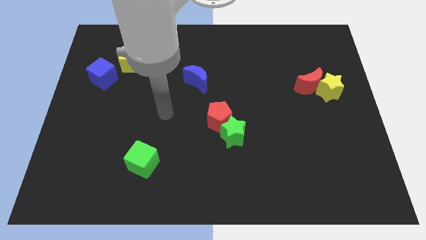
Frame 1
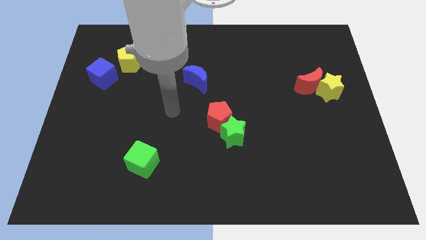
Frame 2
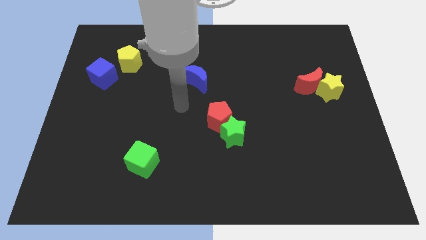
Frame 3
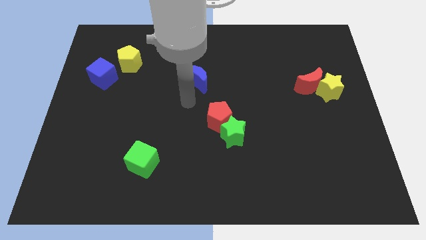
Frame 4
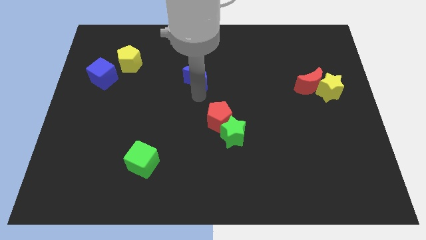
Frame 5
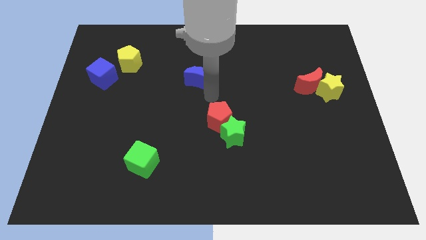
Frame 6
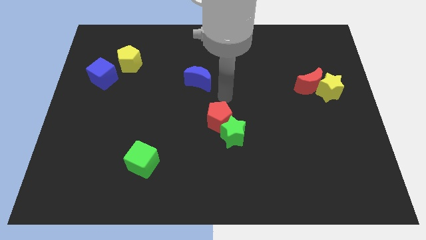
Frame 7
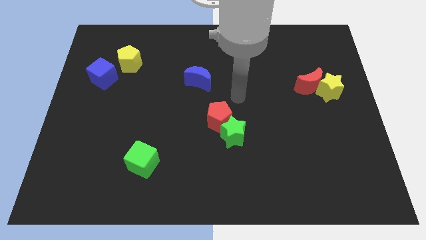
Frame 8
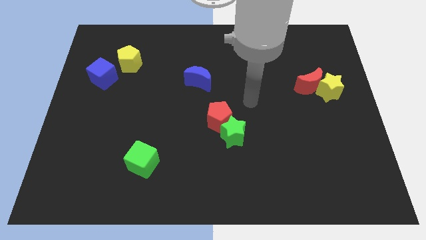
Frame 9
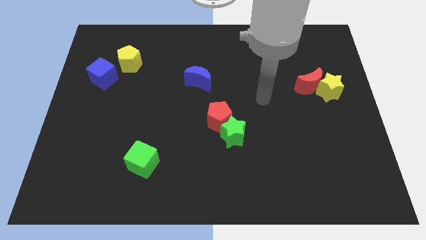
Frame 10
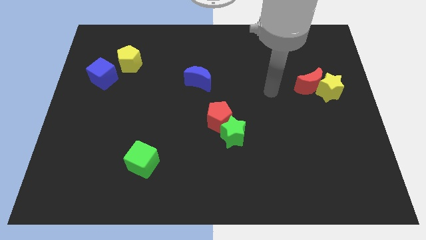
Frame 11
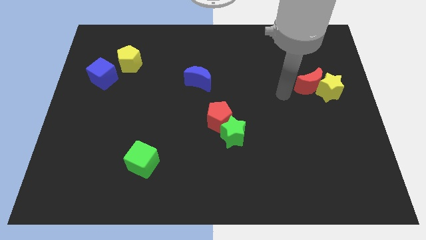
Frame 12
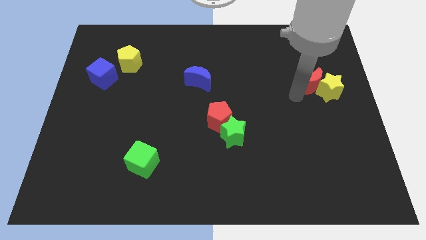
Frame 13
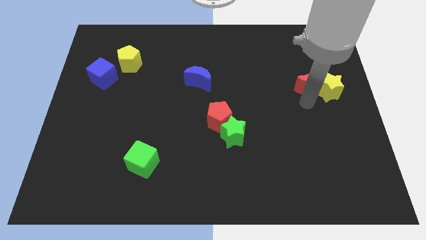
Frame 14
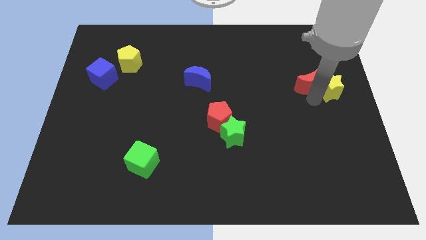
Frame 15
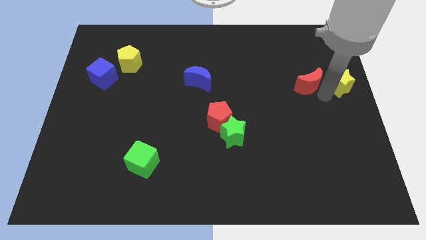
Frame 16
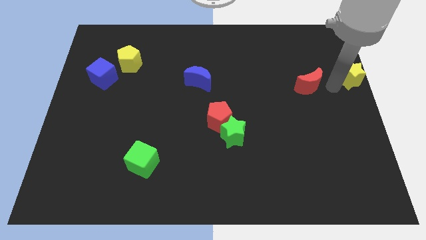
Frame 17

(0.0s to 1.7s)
pull the red moon apart from the yellow star

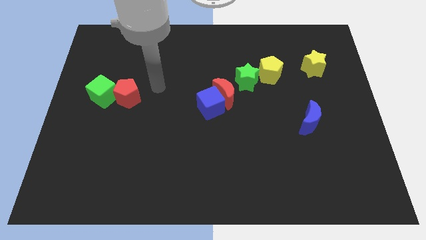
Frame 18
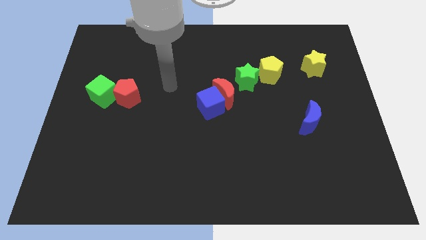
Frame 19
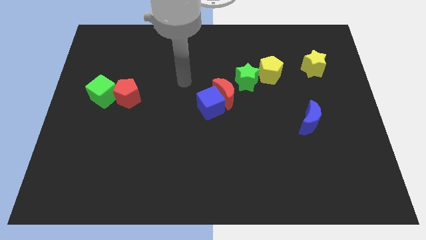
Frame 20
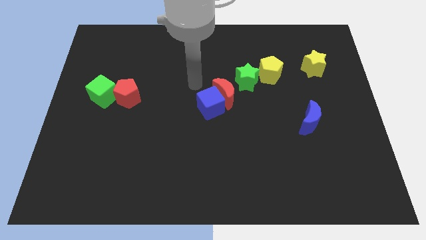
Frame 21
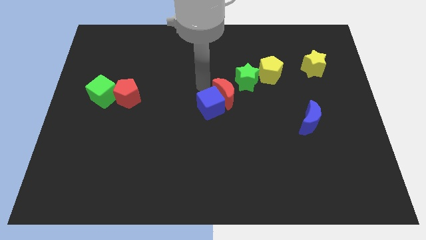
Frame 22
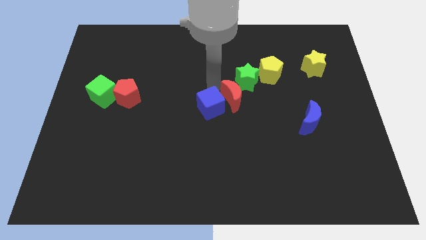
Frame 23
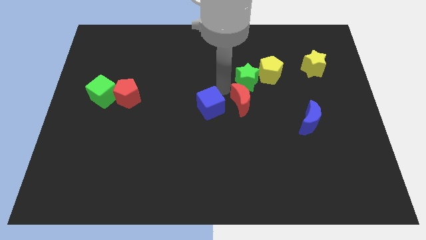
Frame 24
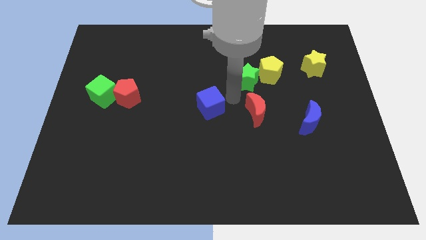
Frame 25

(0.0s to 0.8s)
pull the blue cube apart from the red moon

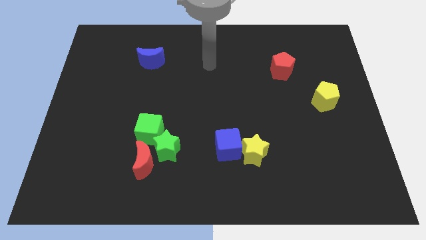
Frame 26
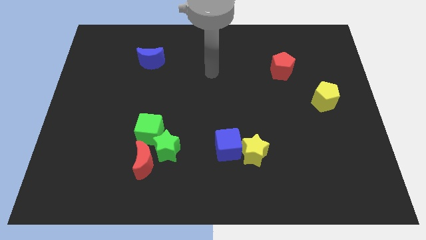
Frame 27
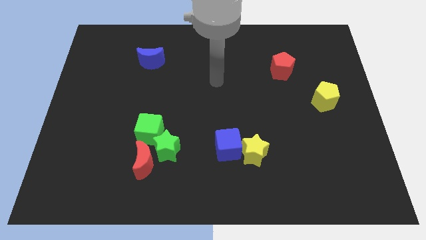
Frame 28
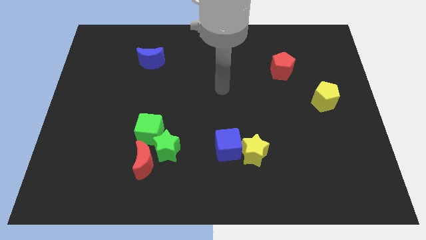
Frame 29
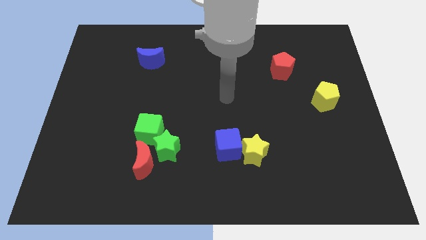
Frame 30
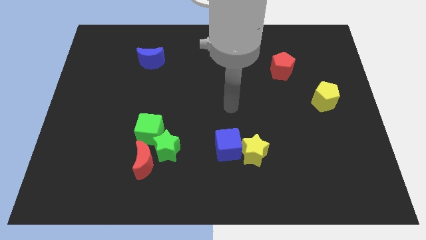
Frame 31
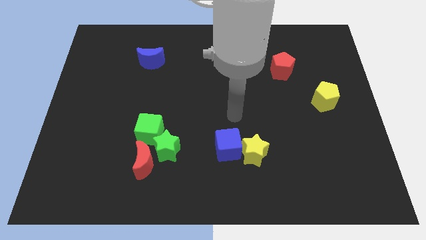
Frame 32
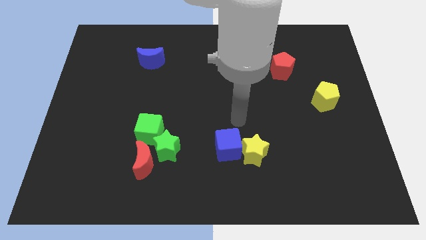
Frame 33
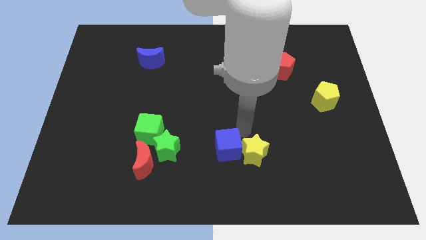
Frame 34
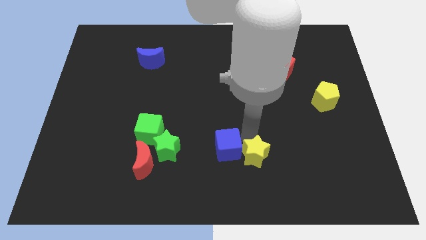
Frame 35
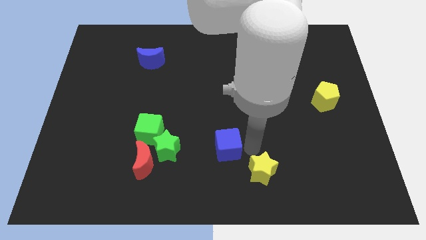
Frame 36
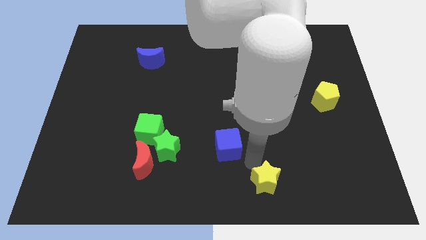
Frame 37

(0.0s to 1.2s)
pull the blue cube apart from the yellow star

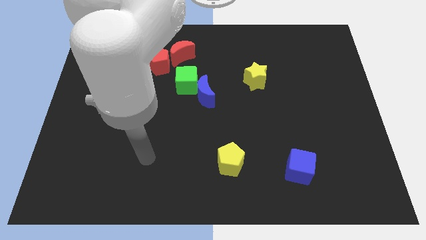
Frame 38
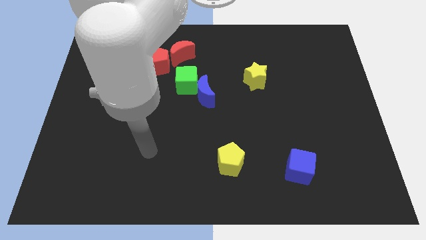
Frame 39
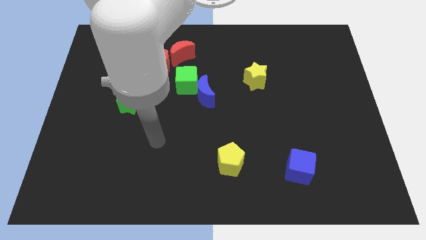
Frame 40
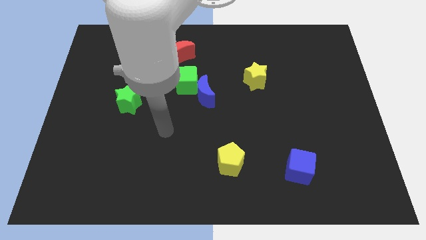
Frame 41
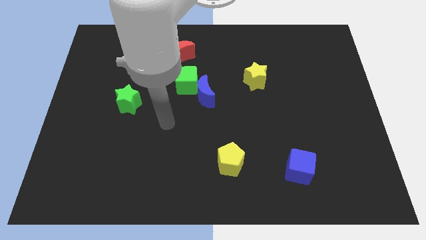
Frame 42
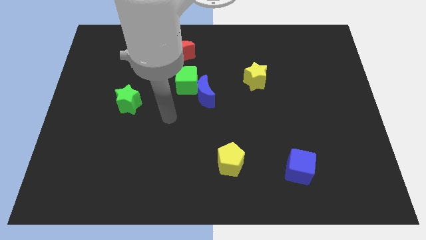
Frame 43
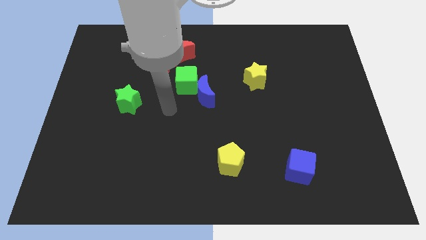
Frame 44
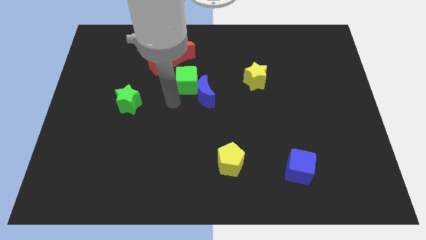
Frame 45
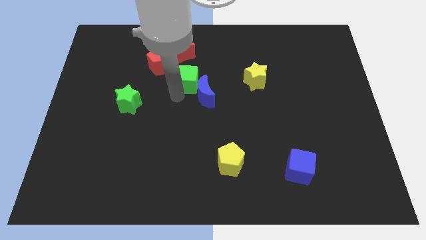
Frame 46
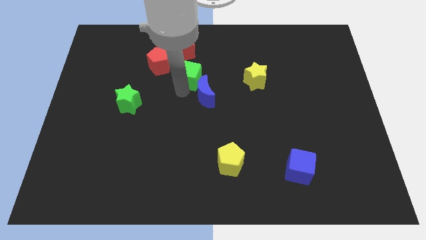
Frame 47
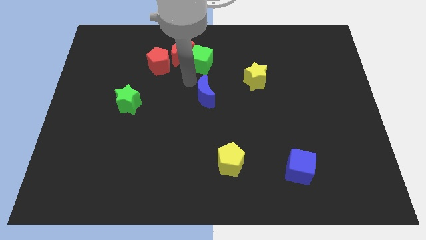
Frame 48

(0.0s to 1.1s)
separate the blue moon from the green cube

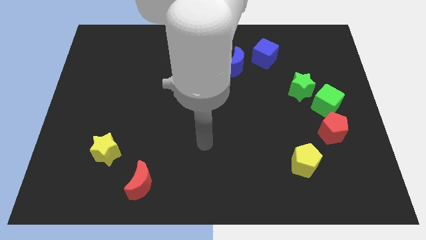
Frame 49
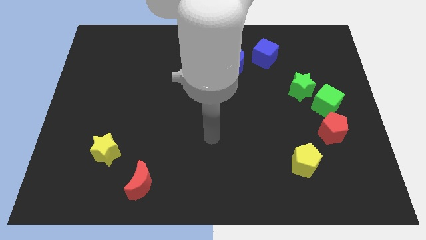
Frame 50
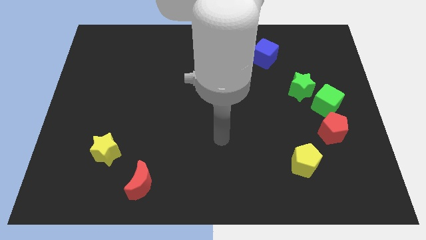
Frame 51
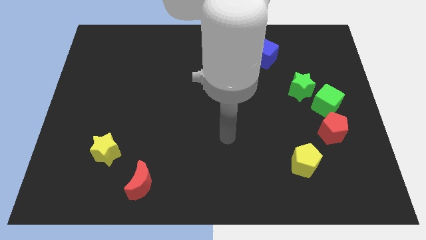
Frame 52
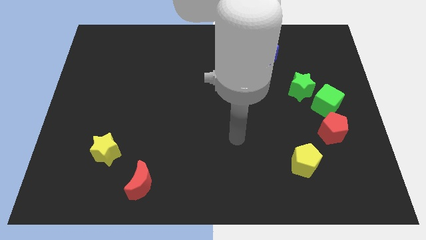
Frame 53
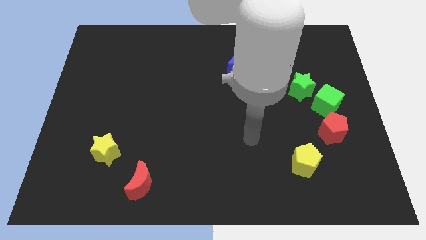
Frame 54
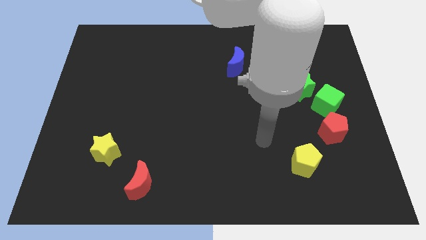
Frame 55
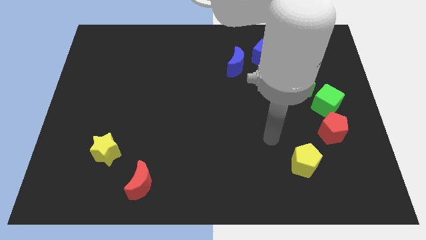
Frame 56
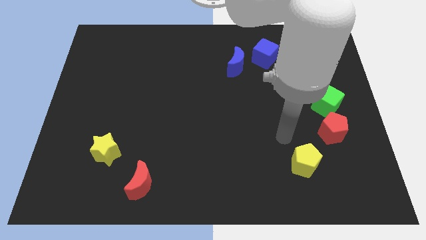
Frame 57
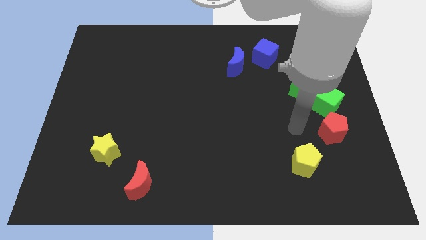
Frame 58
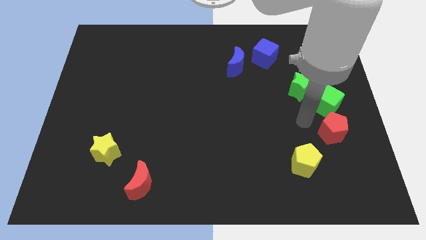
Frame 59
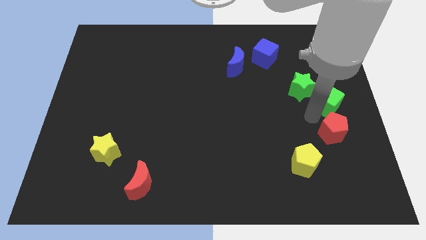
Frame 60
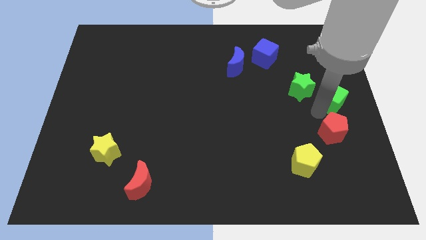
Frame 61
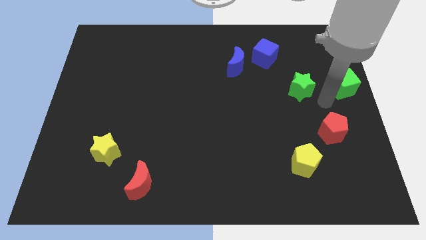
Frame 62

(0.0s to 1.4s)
separate the green star from the green cube

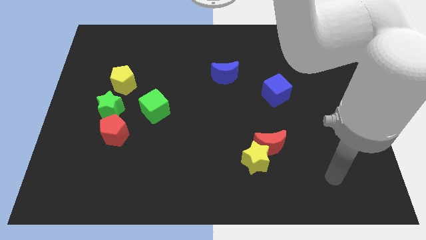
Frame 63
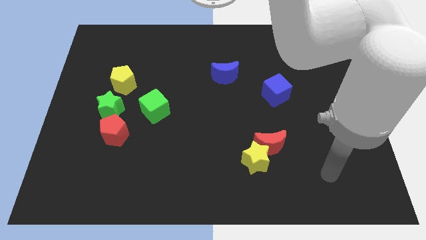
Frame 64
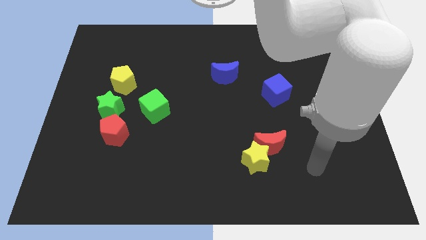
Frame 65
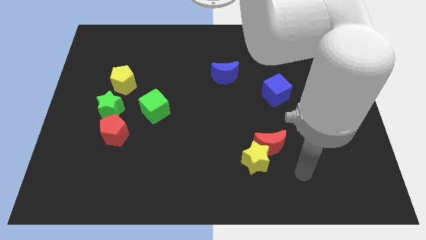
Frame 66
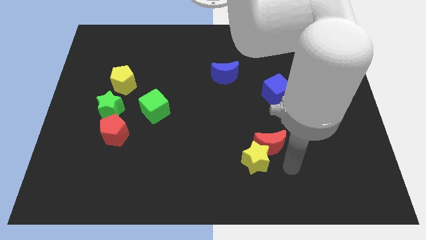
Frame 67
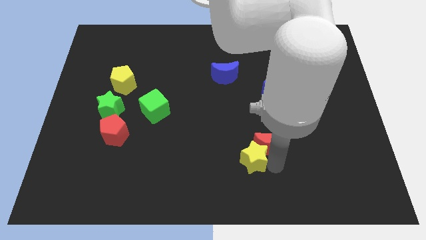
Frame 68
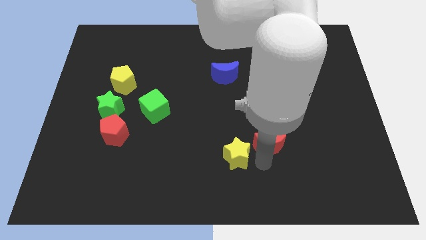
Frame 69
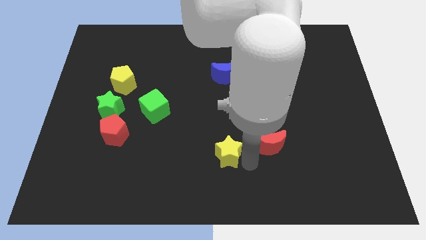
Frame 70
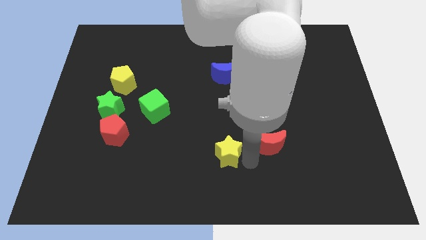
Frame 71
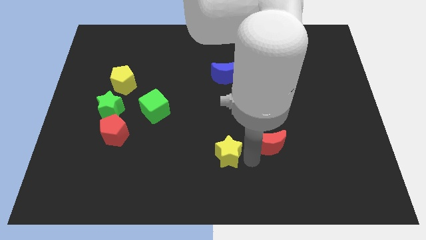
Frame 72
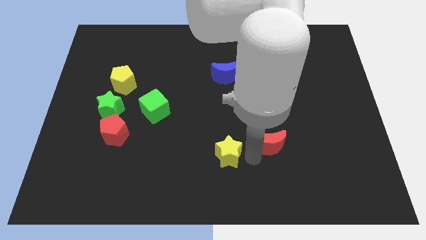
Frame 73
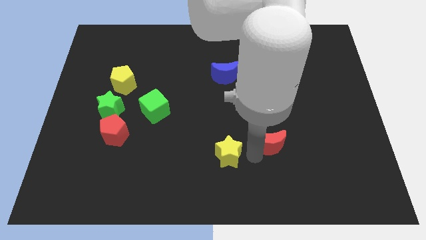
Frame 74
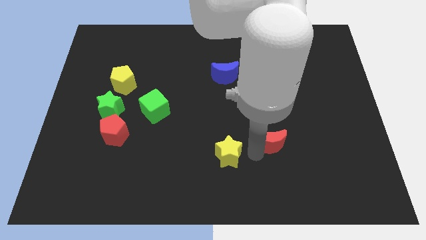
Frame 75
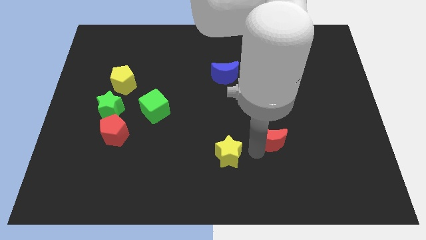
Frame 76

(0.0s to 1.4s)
separate the red moon from the yellow star

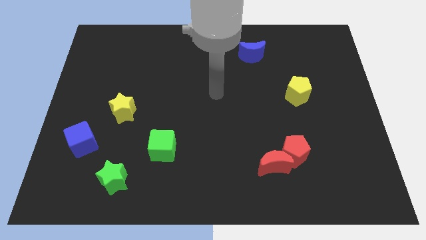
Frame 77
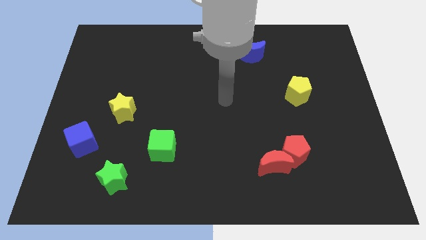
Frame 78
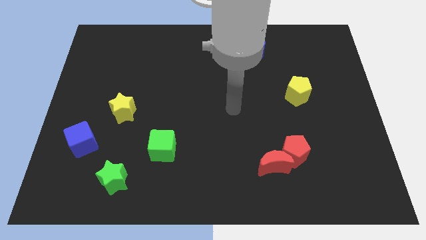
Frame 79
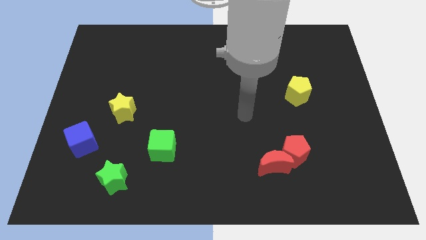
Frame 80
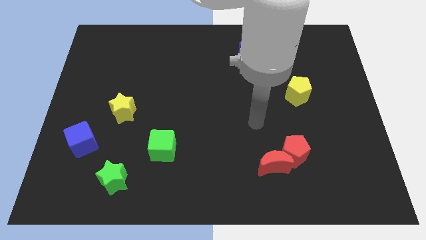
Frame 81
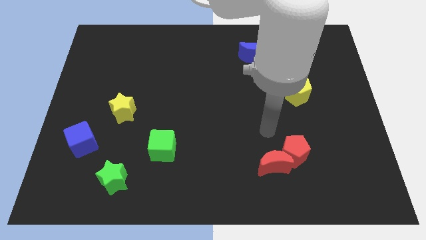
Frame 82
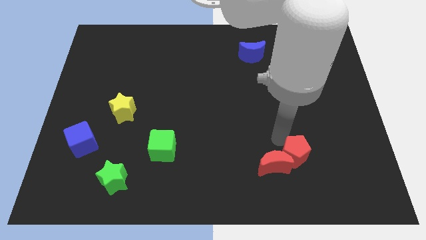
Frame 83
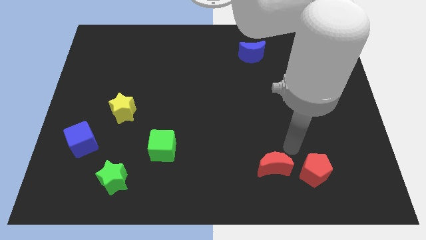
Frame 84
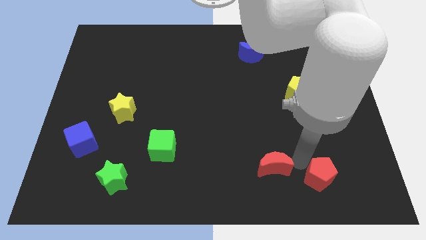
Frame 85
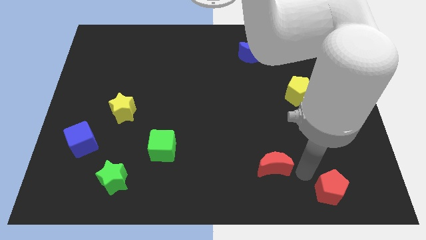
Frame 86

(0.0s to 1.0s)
separate the red moon from the red pentagon

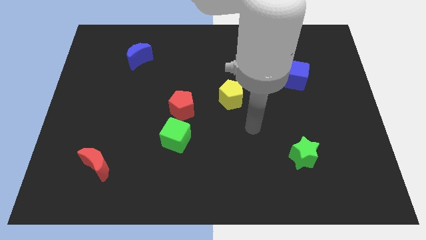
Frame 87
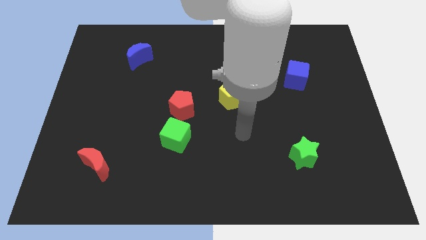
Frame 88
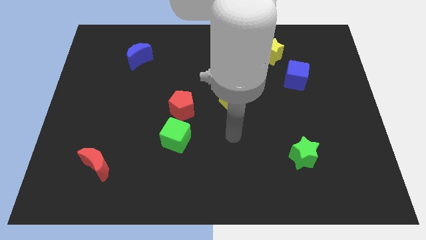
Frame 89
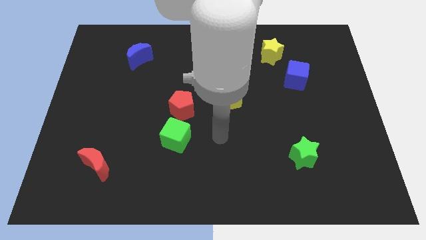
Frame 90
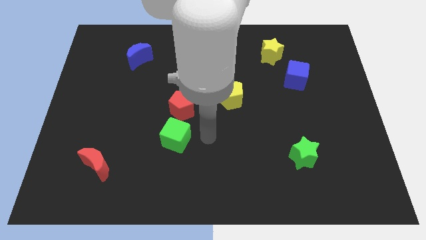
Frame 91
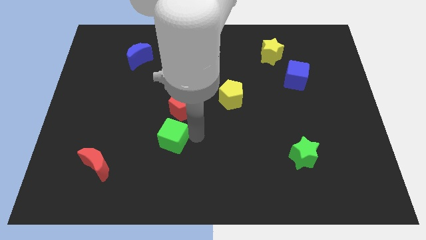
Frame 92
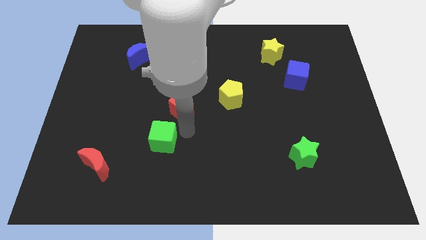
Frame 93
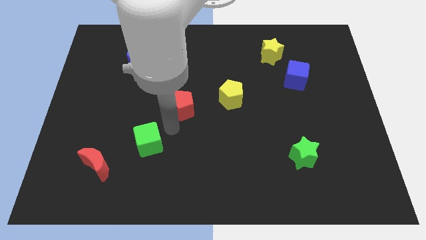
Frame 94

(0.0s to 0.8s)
separate the red pentagon from the green cube
